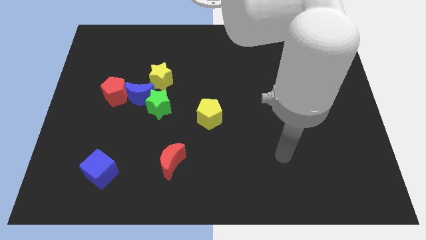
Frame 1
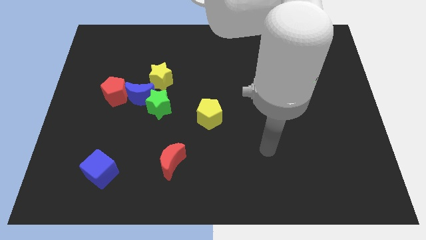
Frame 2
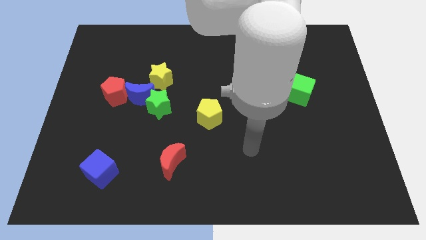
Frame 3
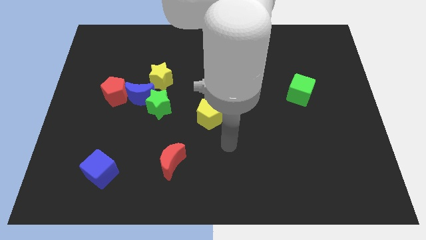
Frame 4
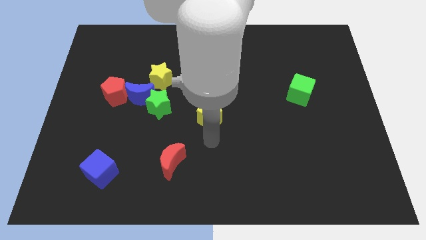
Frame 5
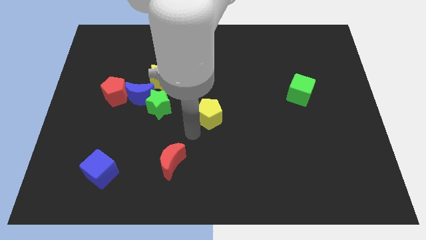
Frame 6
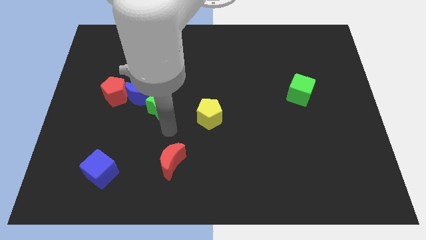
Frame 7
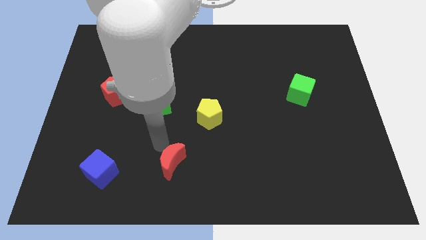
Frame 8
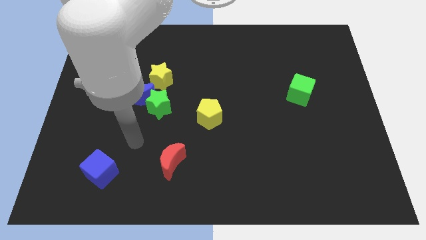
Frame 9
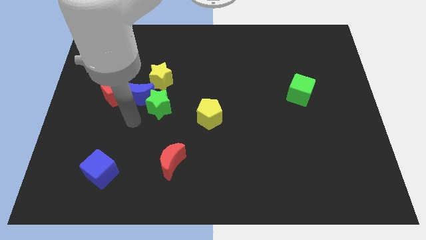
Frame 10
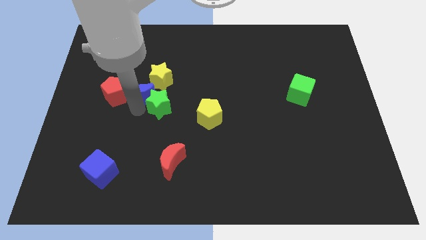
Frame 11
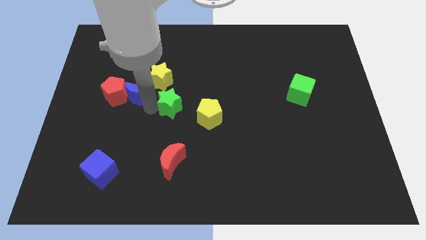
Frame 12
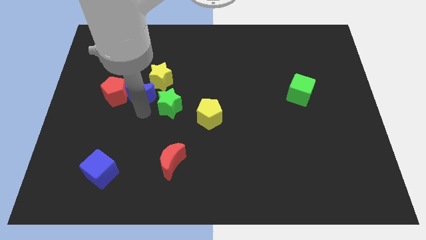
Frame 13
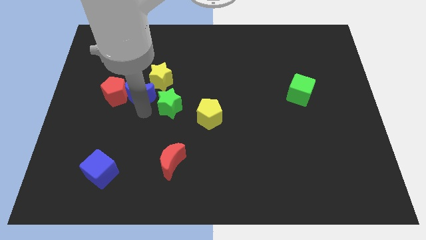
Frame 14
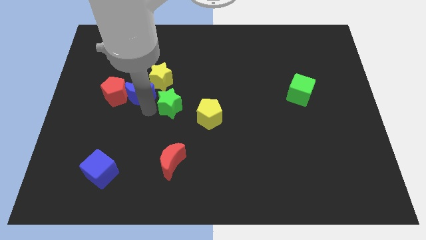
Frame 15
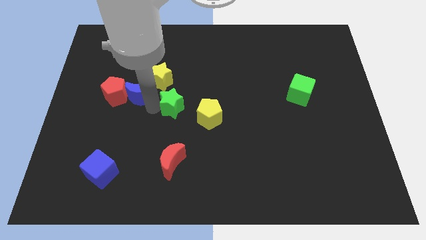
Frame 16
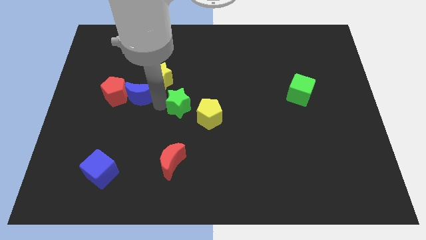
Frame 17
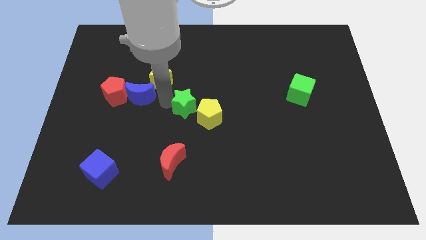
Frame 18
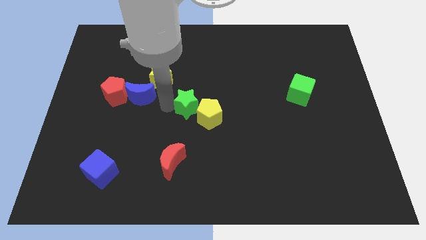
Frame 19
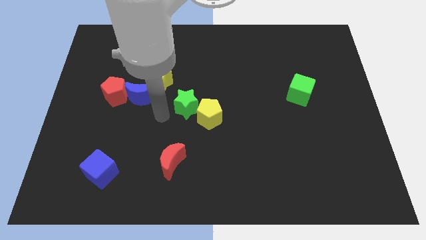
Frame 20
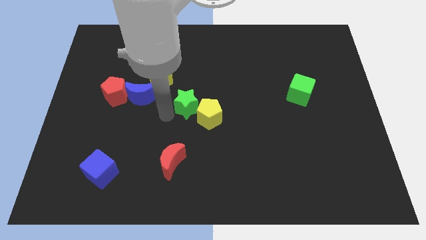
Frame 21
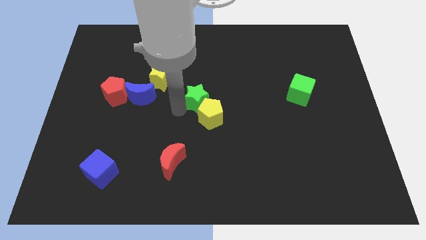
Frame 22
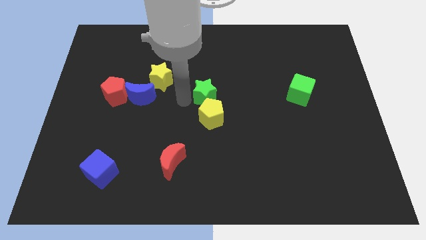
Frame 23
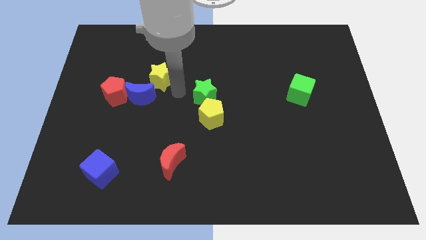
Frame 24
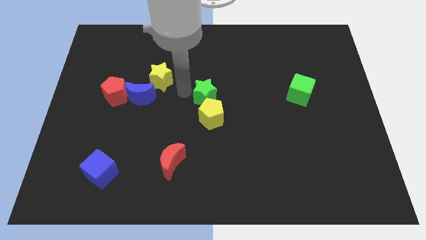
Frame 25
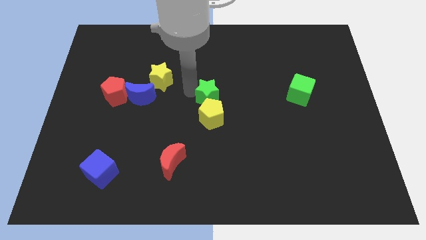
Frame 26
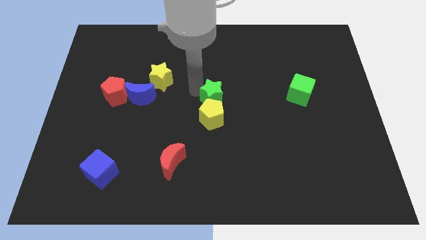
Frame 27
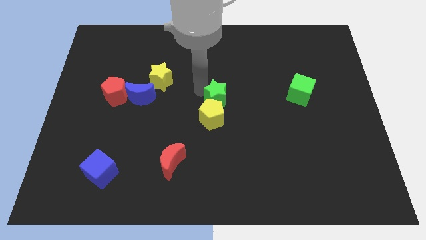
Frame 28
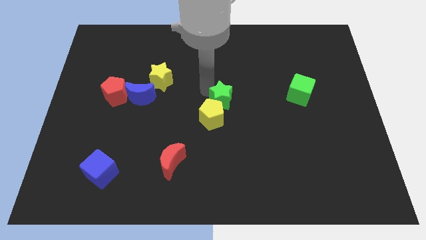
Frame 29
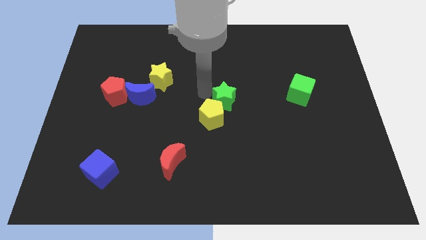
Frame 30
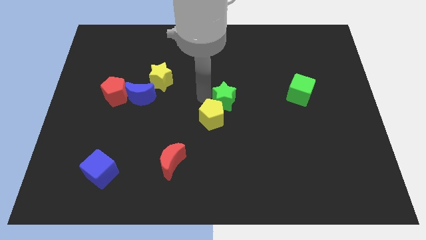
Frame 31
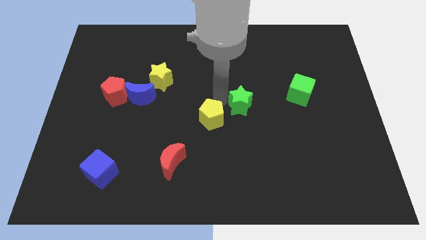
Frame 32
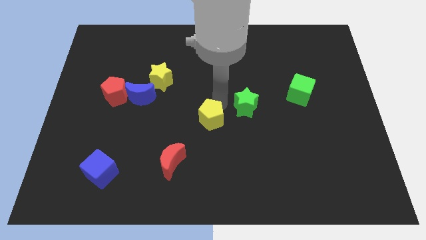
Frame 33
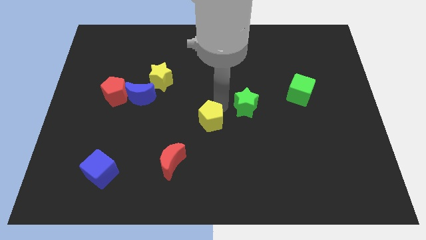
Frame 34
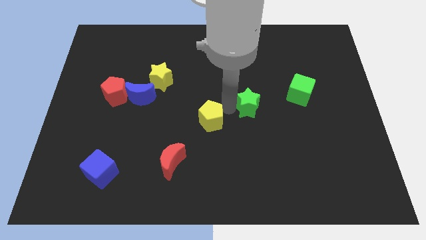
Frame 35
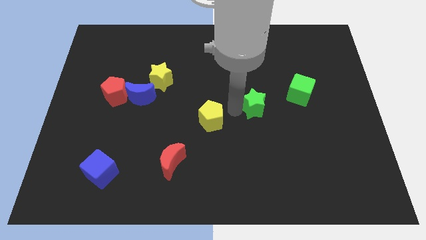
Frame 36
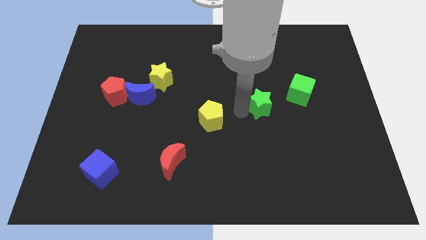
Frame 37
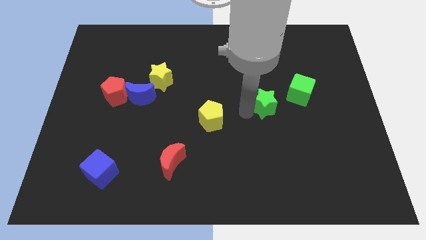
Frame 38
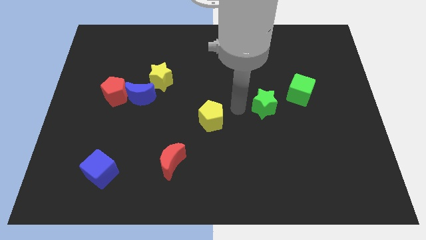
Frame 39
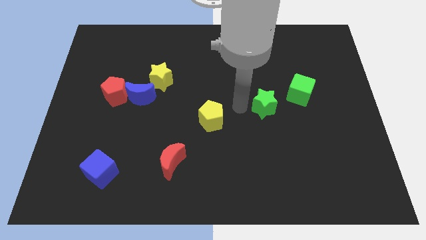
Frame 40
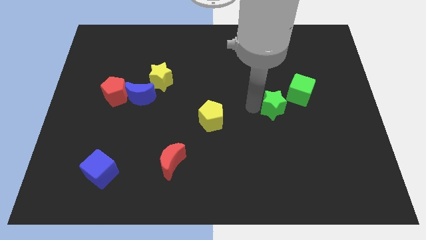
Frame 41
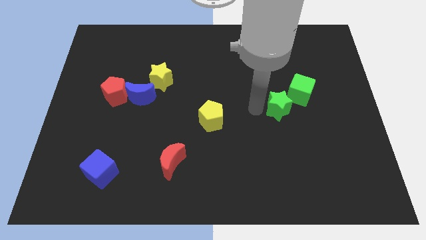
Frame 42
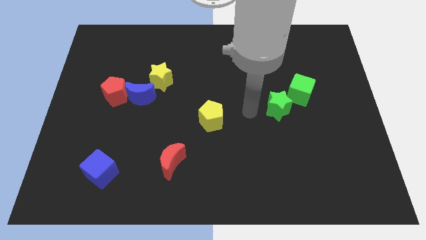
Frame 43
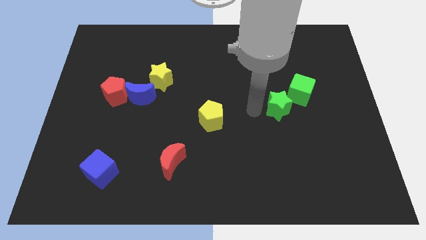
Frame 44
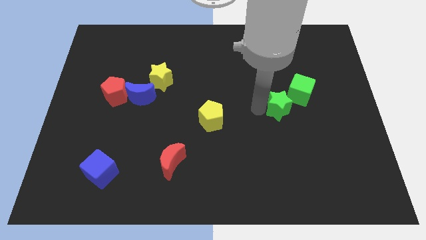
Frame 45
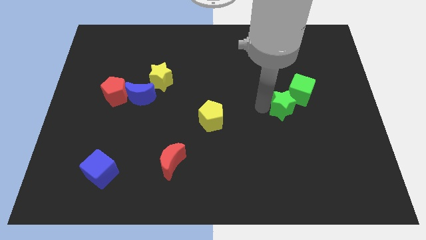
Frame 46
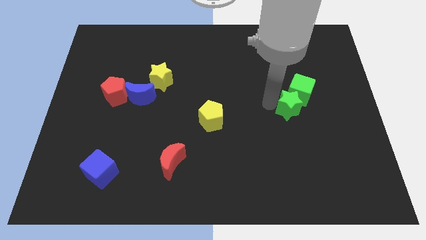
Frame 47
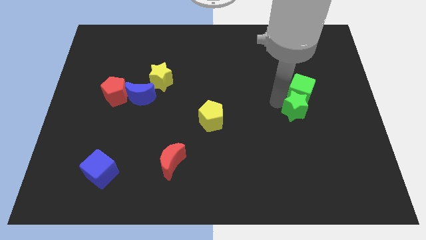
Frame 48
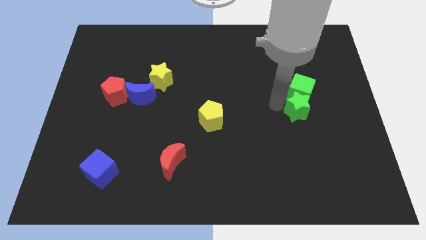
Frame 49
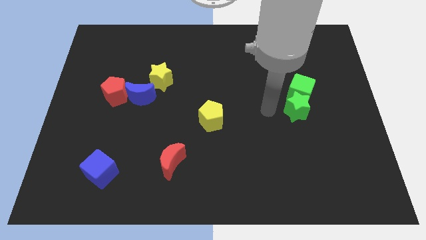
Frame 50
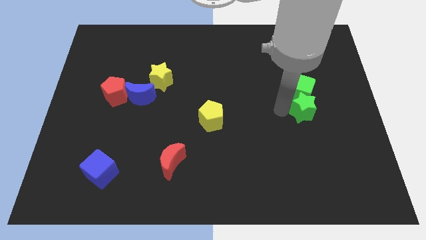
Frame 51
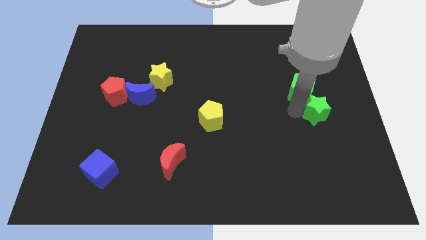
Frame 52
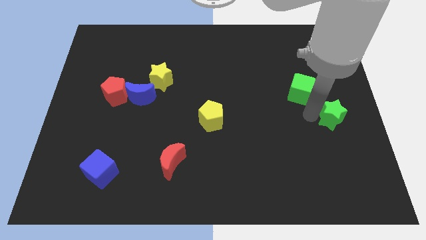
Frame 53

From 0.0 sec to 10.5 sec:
move the green star to the right side of the board

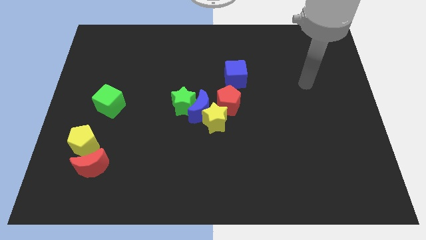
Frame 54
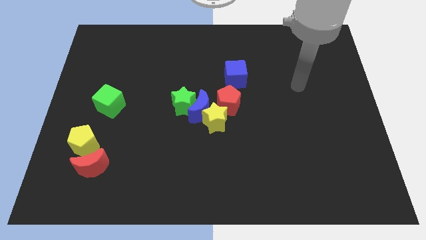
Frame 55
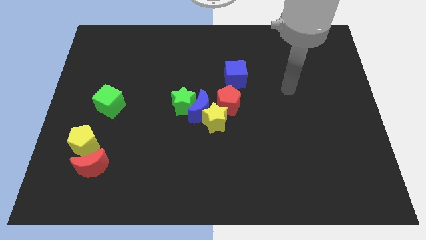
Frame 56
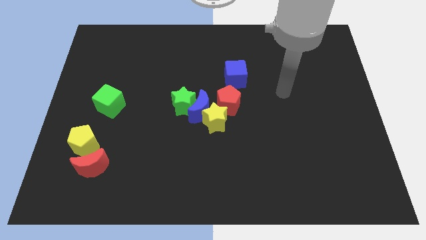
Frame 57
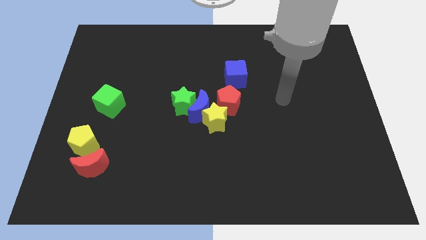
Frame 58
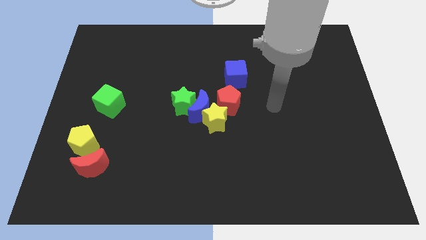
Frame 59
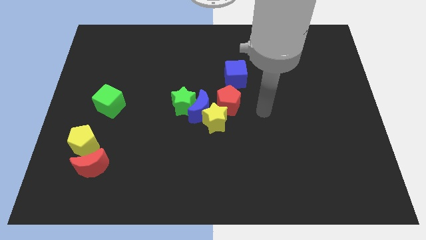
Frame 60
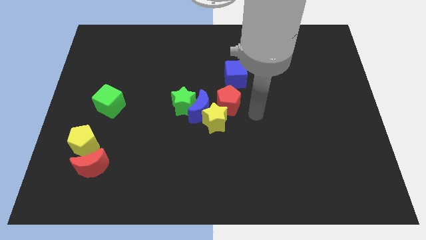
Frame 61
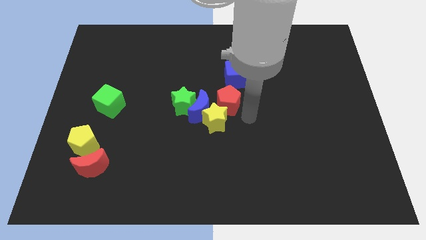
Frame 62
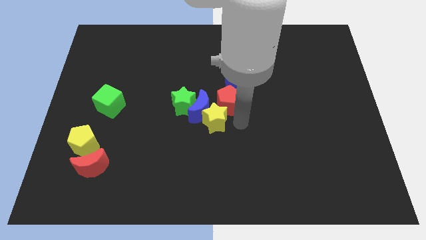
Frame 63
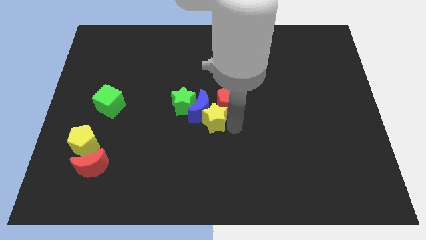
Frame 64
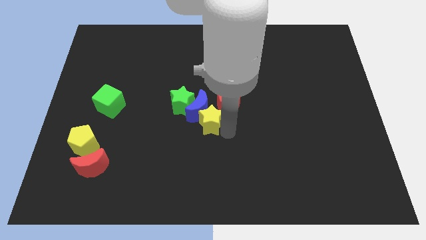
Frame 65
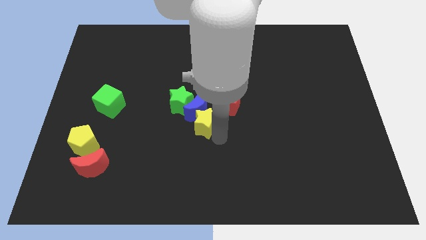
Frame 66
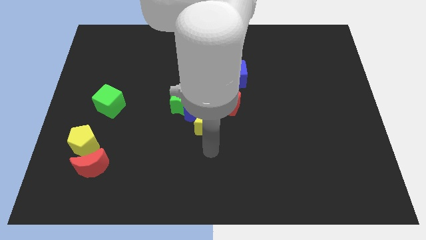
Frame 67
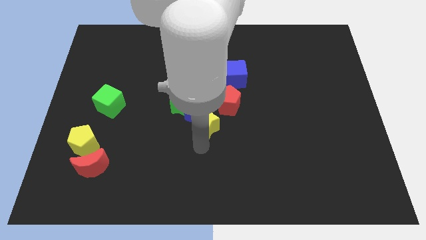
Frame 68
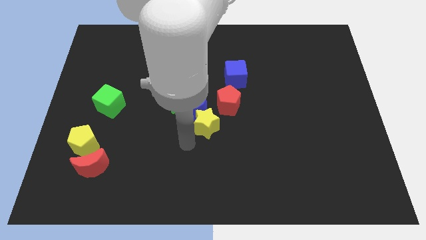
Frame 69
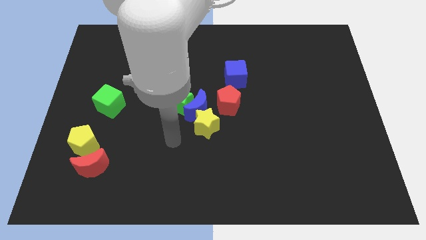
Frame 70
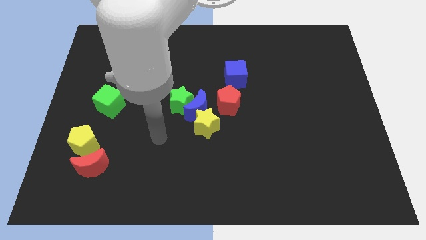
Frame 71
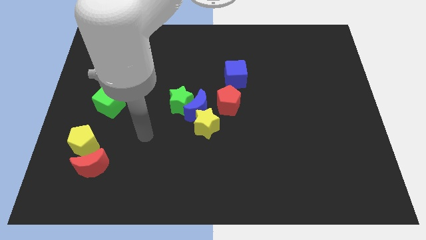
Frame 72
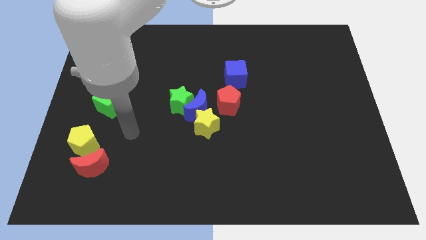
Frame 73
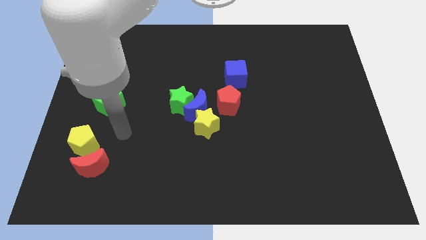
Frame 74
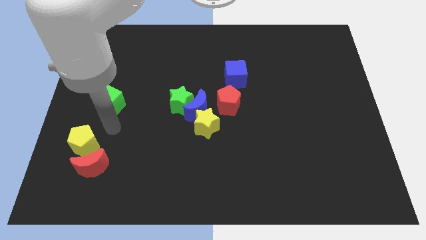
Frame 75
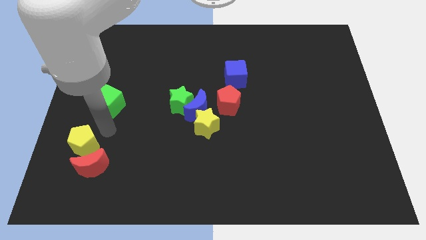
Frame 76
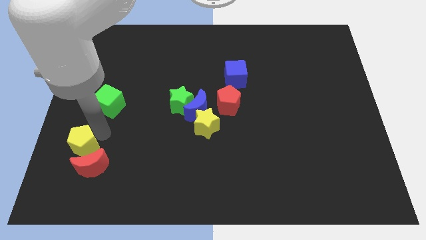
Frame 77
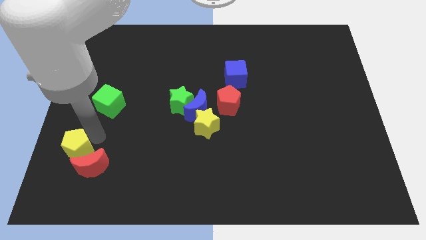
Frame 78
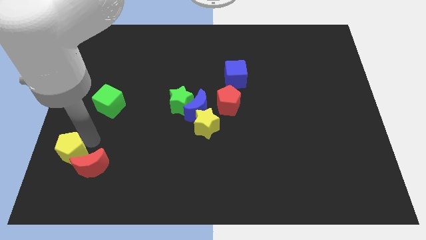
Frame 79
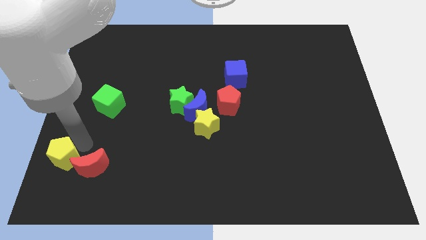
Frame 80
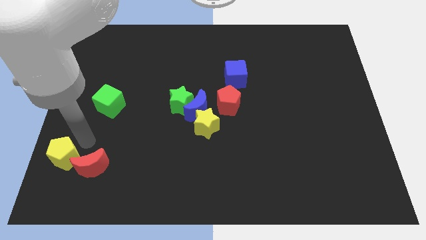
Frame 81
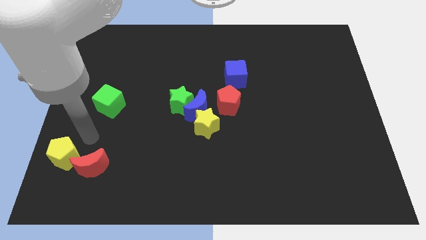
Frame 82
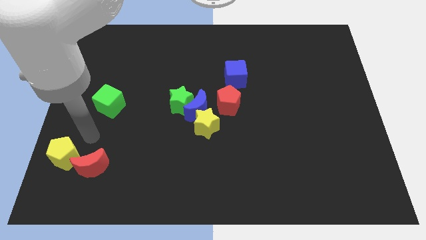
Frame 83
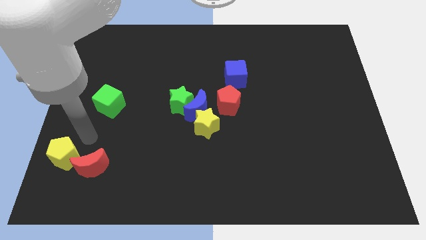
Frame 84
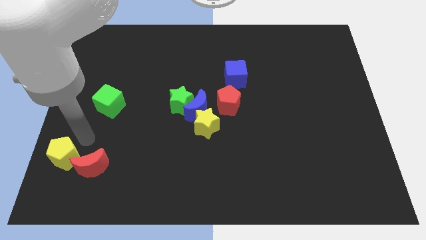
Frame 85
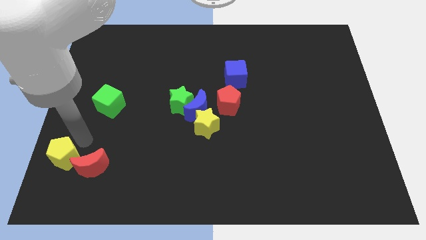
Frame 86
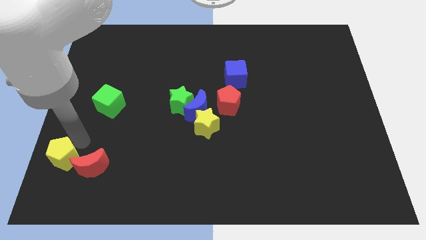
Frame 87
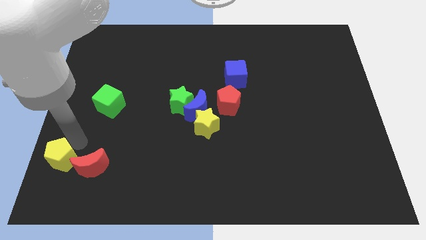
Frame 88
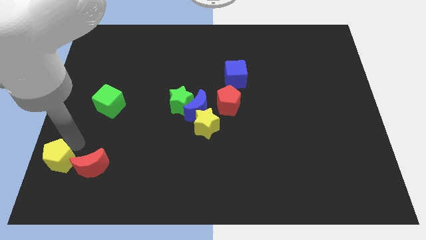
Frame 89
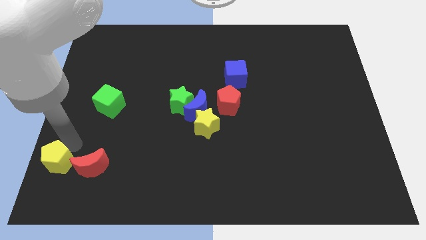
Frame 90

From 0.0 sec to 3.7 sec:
move the yellow pentagon to the bottom left of the board
